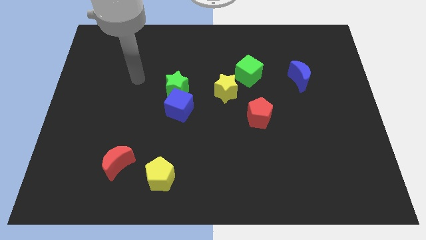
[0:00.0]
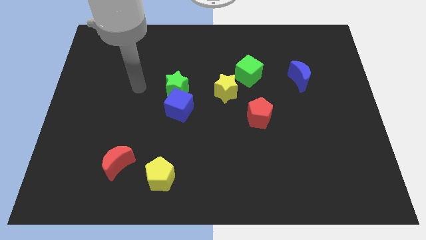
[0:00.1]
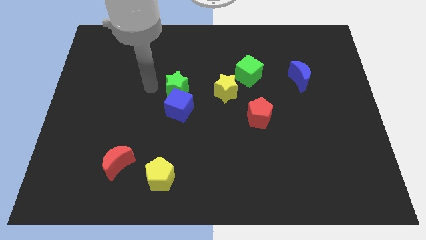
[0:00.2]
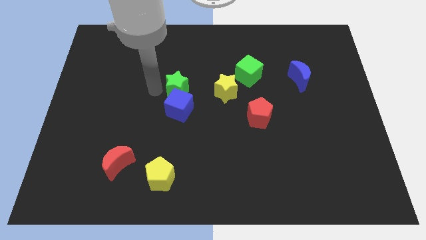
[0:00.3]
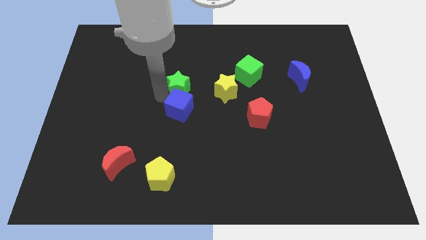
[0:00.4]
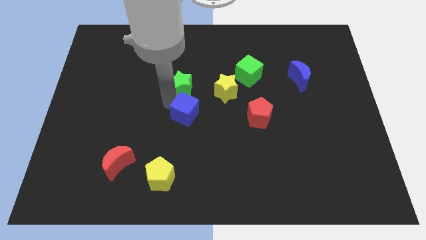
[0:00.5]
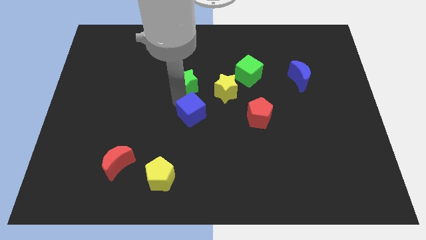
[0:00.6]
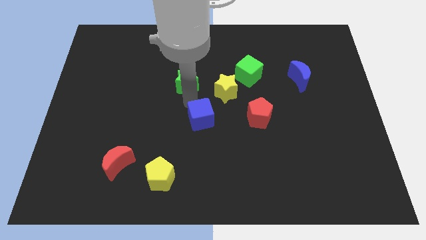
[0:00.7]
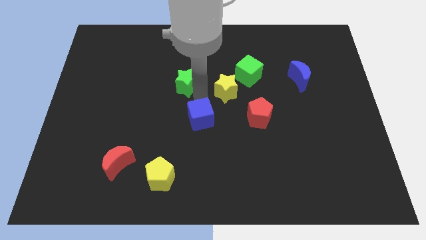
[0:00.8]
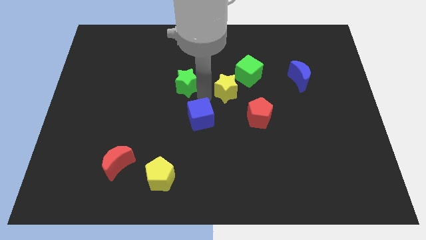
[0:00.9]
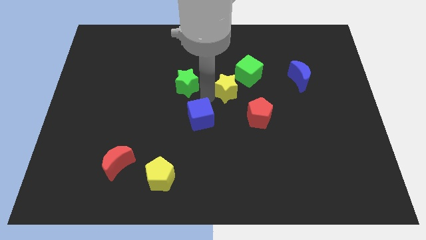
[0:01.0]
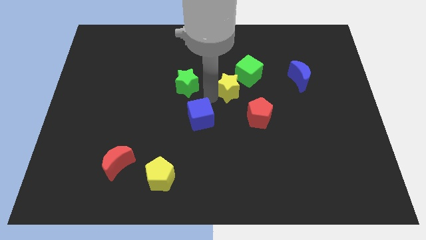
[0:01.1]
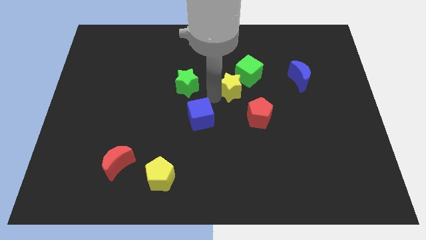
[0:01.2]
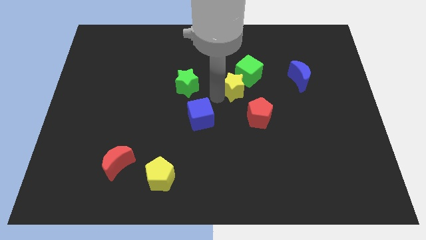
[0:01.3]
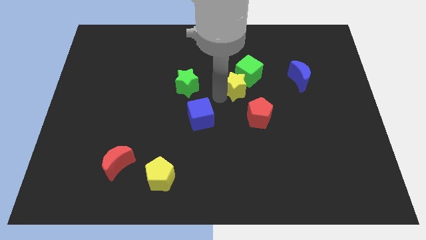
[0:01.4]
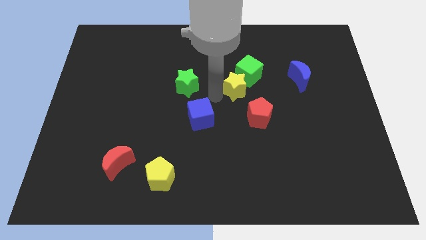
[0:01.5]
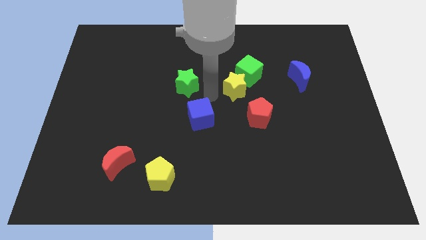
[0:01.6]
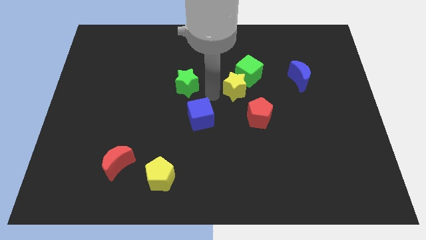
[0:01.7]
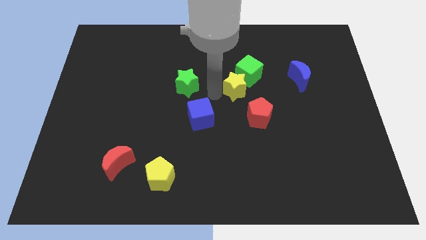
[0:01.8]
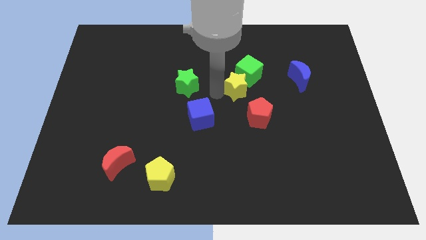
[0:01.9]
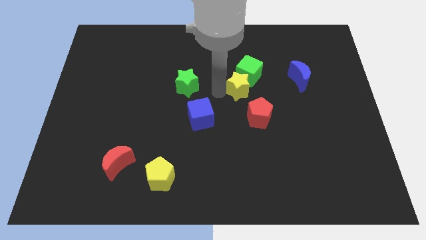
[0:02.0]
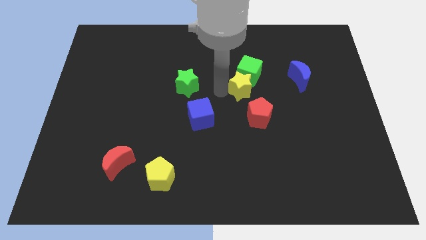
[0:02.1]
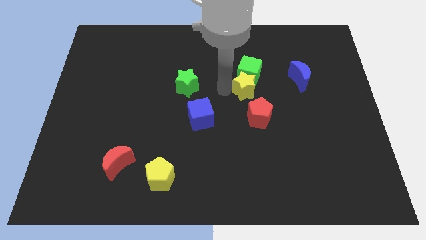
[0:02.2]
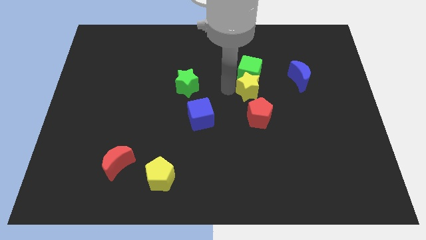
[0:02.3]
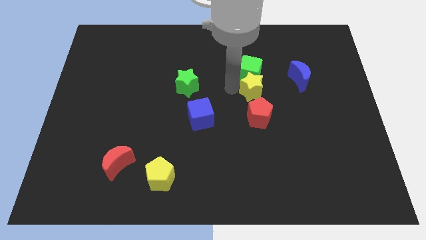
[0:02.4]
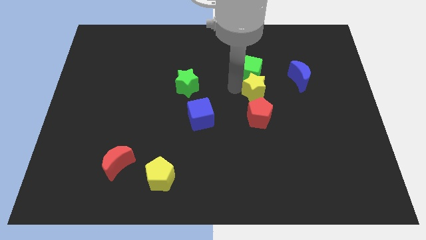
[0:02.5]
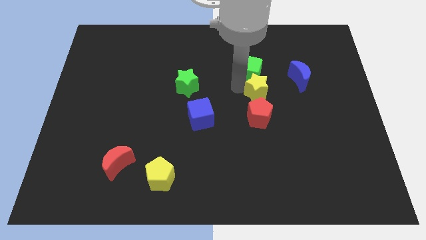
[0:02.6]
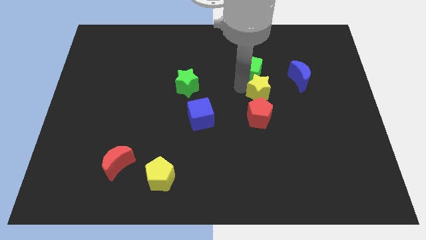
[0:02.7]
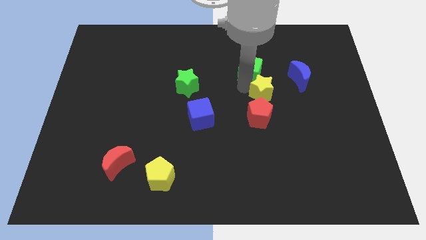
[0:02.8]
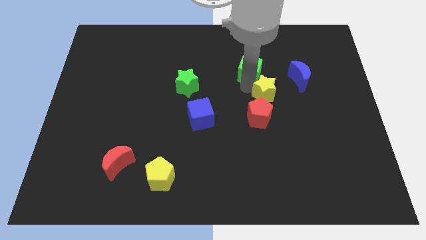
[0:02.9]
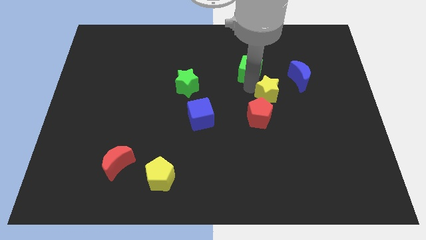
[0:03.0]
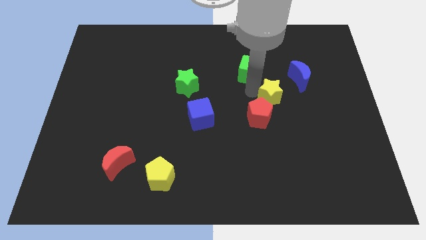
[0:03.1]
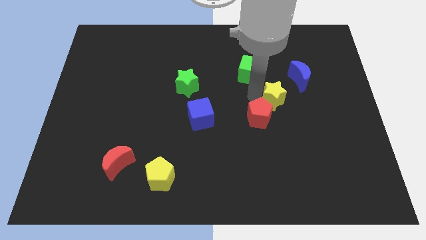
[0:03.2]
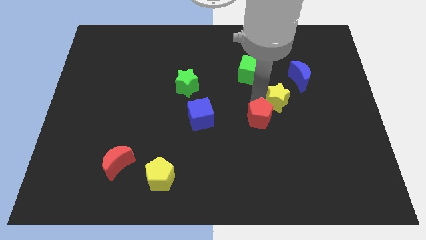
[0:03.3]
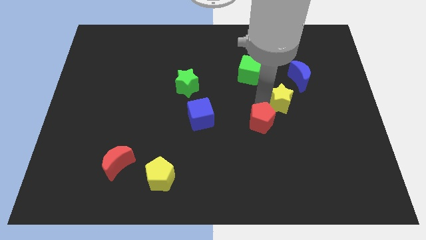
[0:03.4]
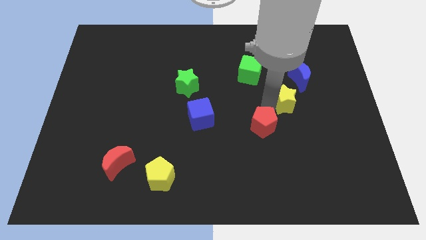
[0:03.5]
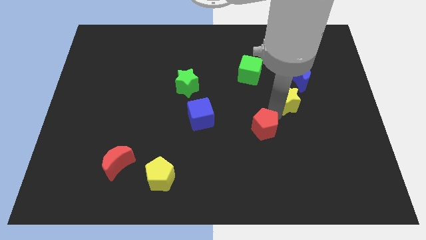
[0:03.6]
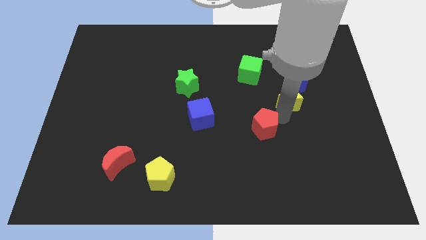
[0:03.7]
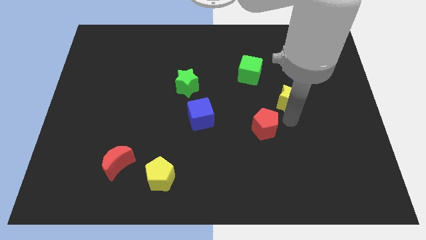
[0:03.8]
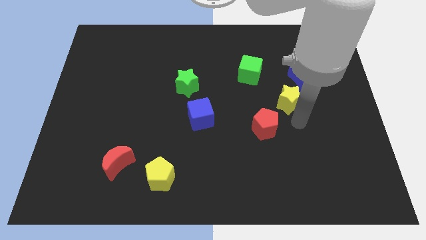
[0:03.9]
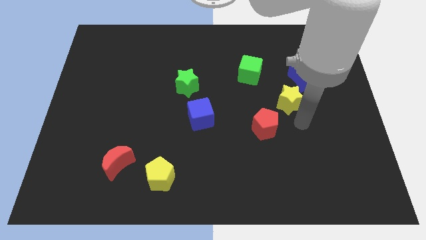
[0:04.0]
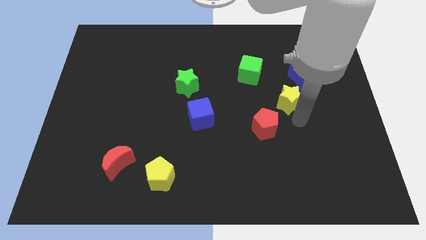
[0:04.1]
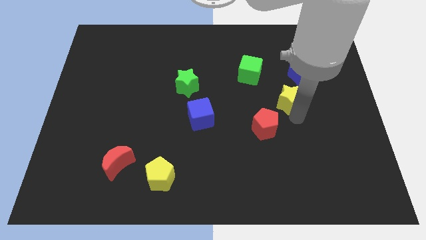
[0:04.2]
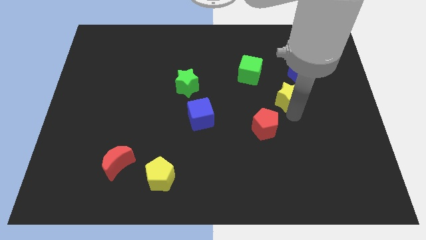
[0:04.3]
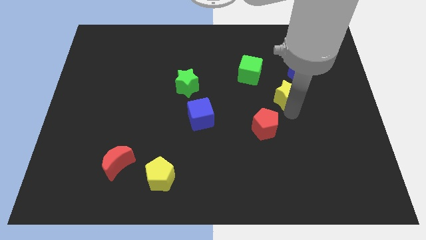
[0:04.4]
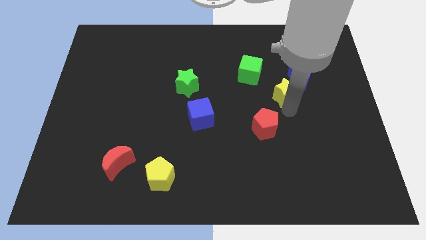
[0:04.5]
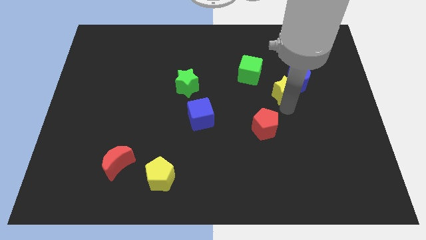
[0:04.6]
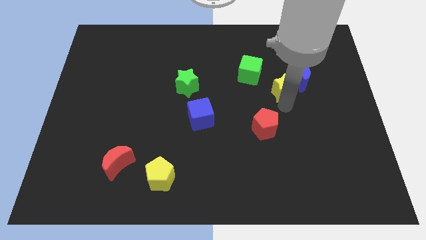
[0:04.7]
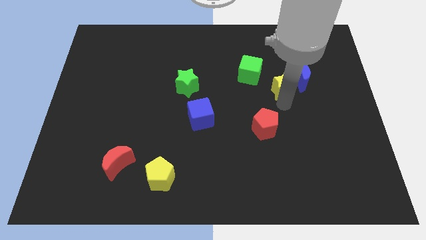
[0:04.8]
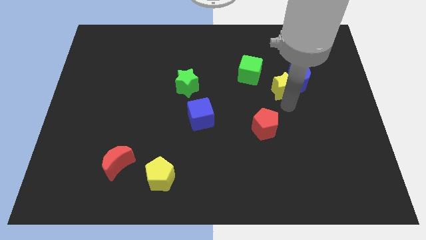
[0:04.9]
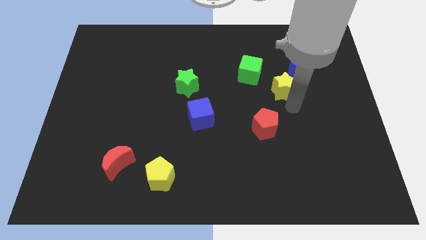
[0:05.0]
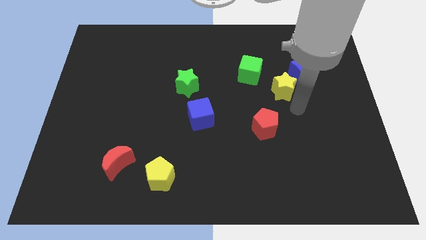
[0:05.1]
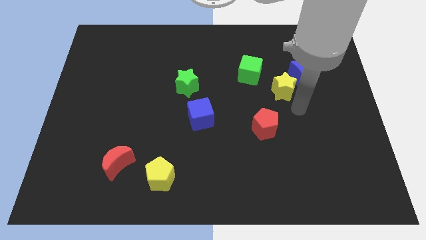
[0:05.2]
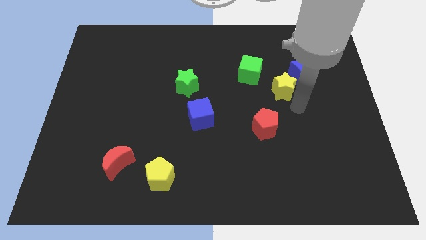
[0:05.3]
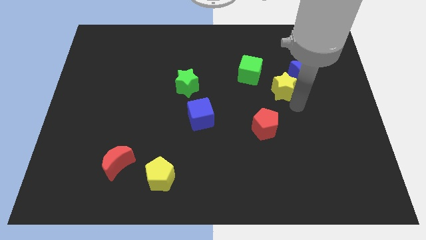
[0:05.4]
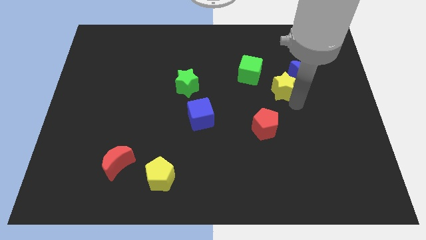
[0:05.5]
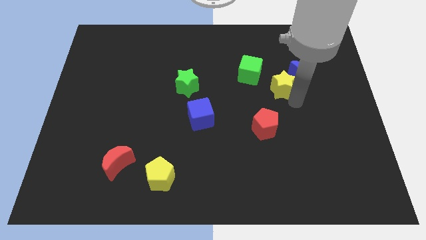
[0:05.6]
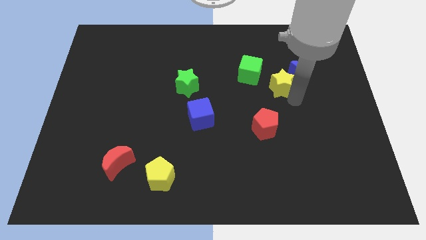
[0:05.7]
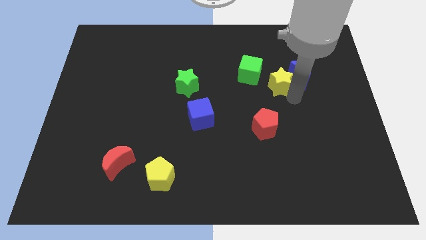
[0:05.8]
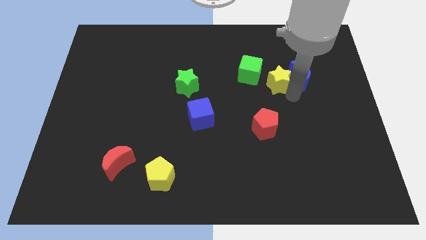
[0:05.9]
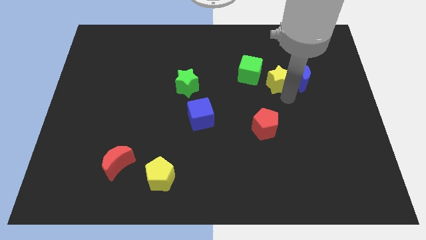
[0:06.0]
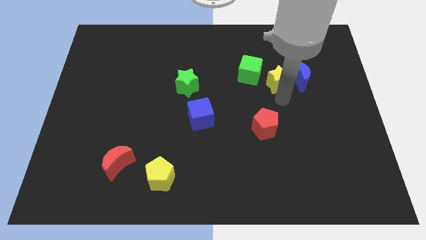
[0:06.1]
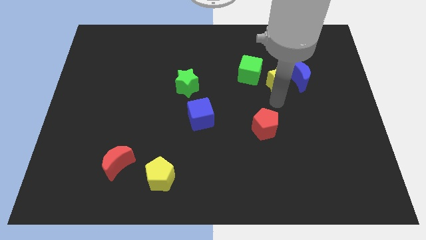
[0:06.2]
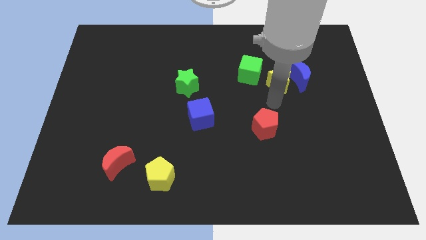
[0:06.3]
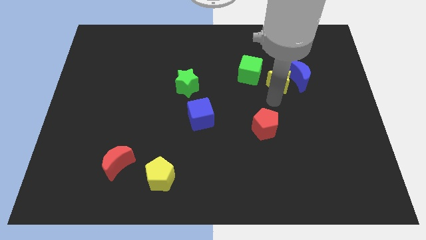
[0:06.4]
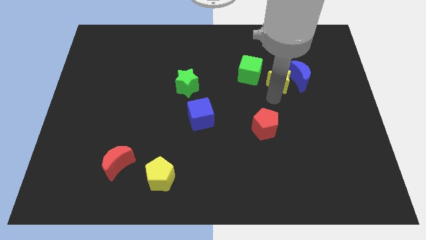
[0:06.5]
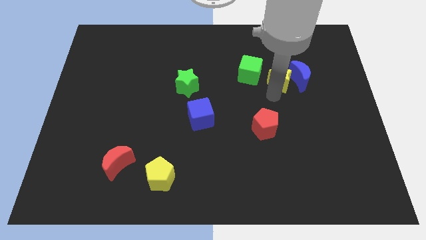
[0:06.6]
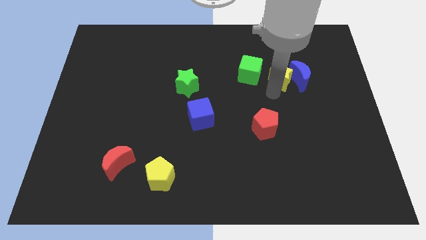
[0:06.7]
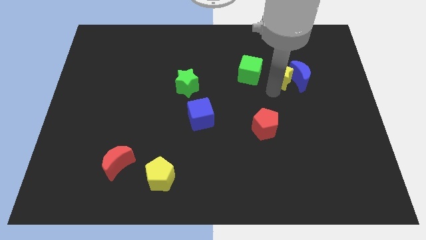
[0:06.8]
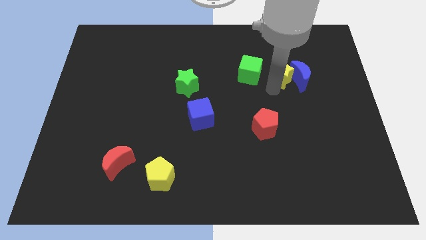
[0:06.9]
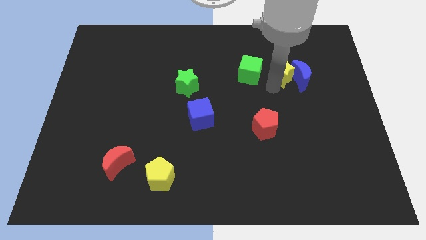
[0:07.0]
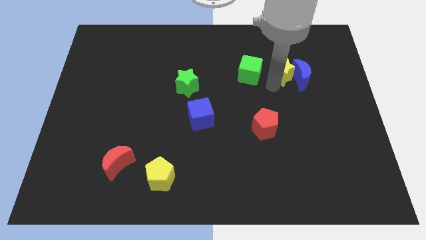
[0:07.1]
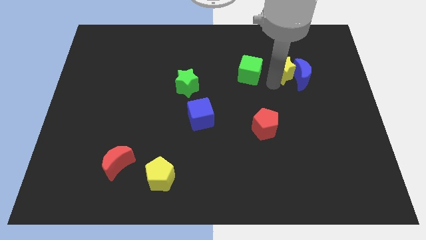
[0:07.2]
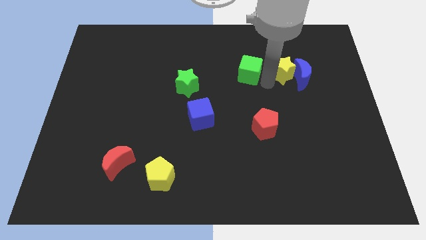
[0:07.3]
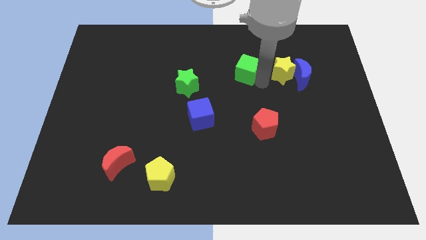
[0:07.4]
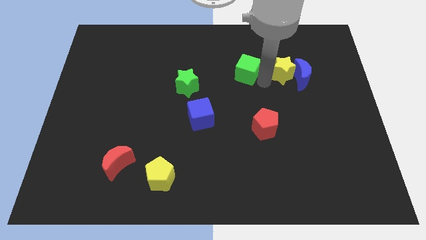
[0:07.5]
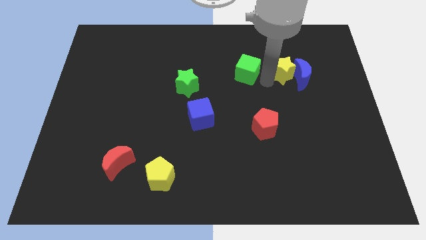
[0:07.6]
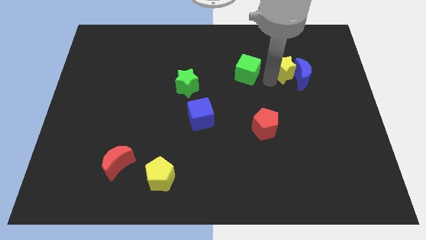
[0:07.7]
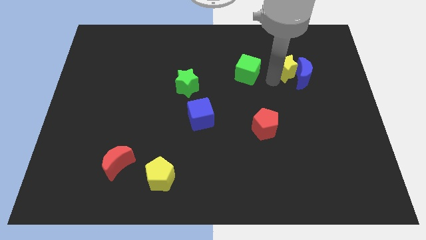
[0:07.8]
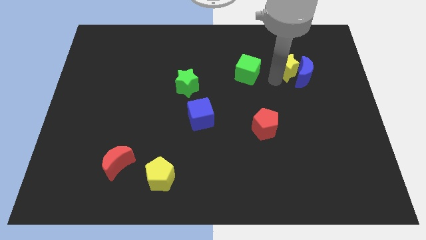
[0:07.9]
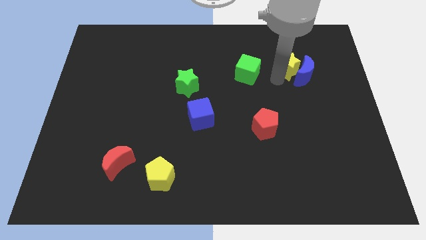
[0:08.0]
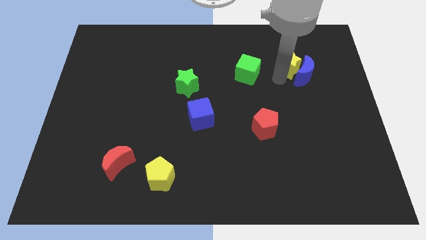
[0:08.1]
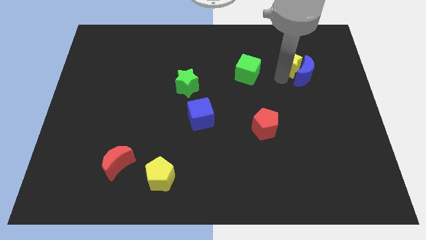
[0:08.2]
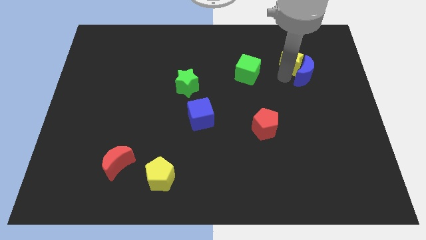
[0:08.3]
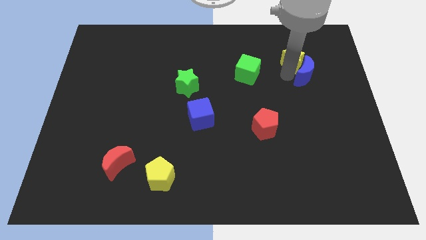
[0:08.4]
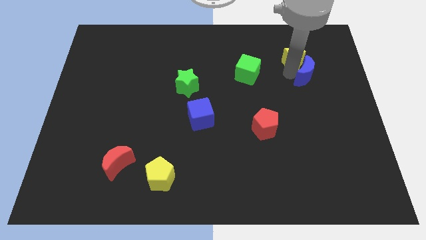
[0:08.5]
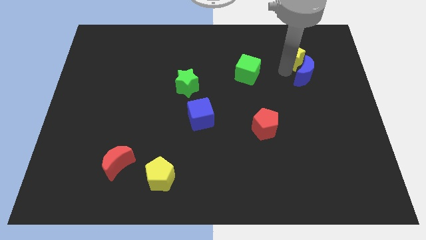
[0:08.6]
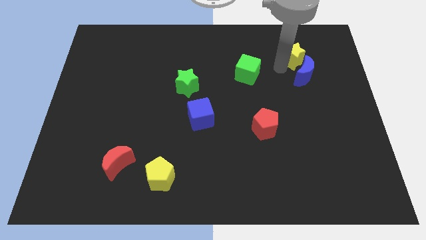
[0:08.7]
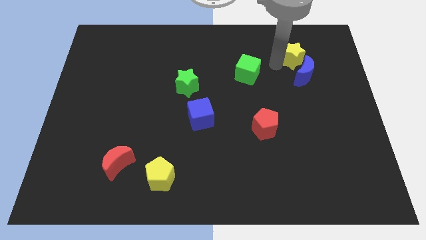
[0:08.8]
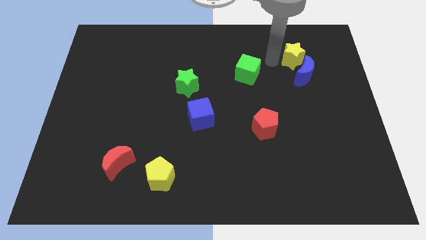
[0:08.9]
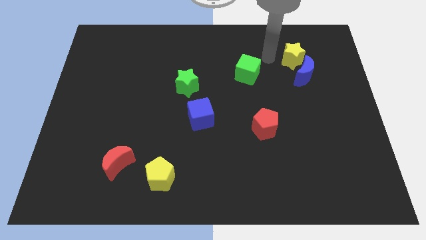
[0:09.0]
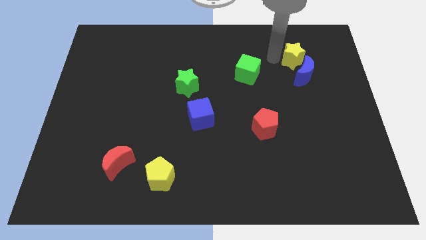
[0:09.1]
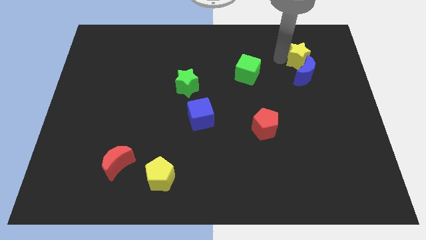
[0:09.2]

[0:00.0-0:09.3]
put the yellow star to the top right of the blue moon
